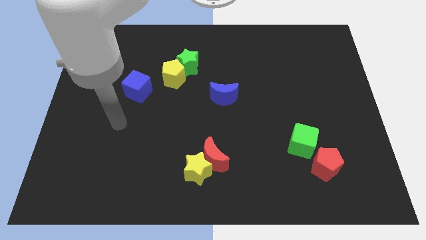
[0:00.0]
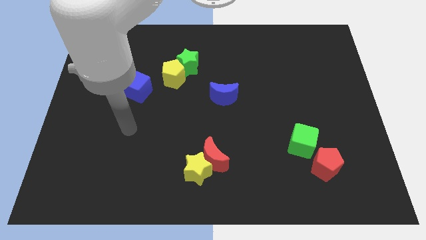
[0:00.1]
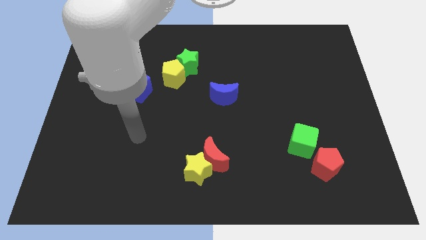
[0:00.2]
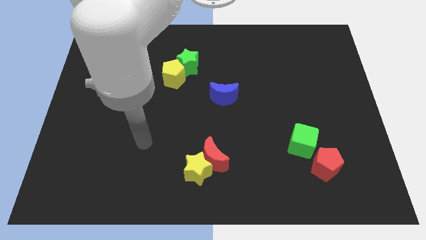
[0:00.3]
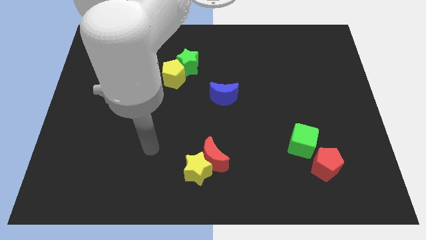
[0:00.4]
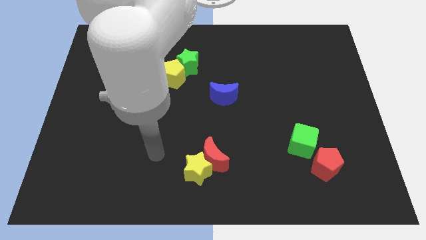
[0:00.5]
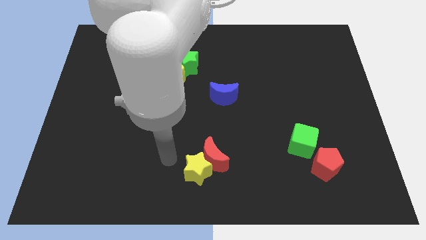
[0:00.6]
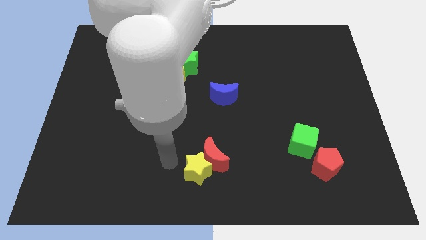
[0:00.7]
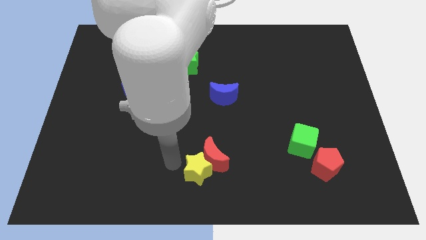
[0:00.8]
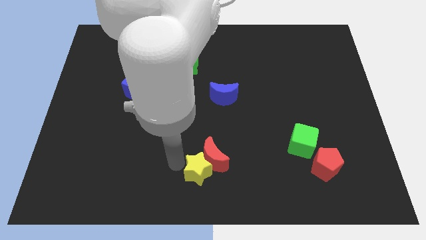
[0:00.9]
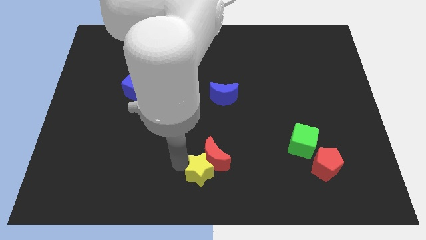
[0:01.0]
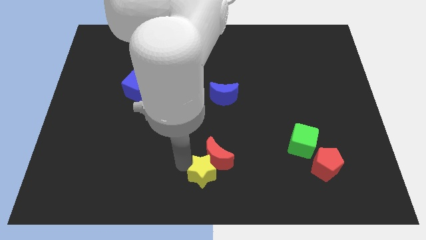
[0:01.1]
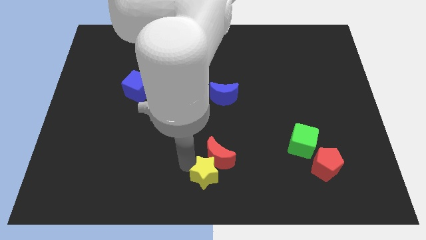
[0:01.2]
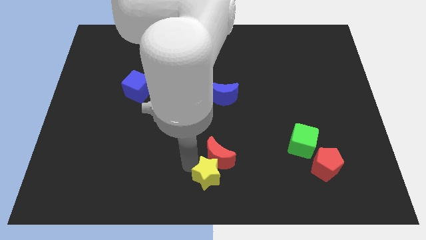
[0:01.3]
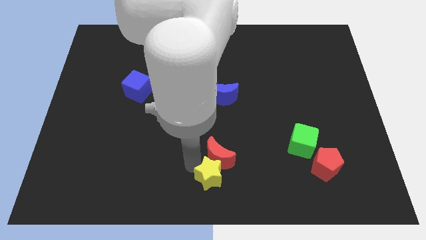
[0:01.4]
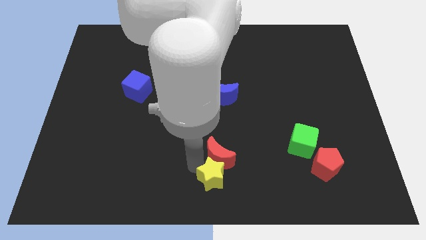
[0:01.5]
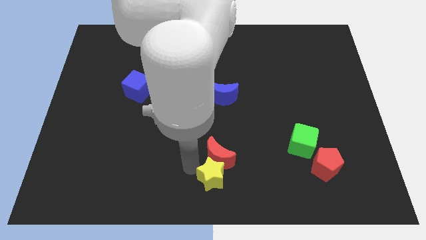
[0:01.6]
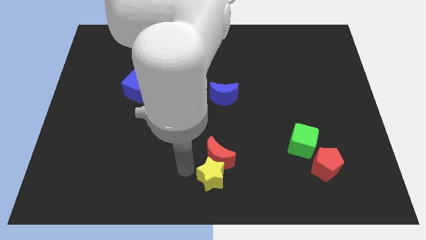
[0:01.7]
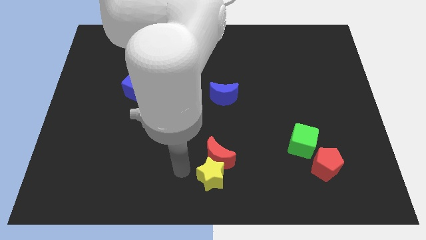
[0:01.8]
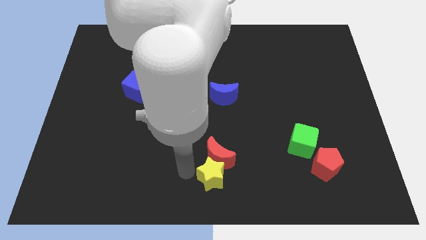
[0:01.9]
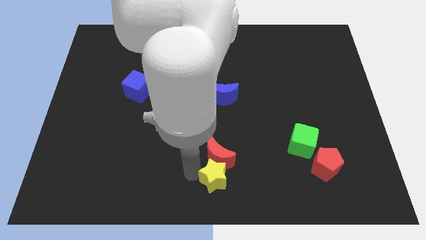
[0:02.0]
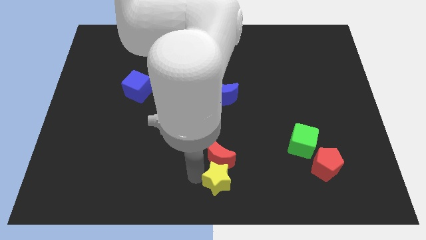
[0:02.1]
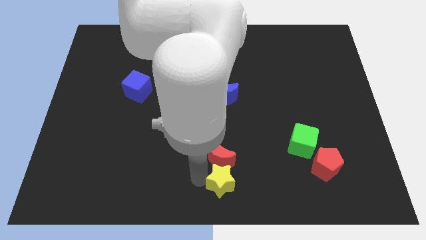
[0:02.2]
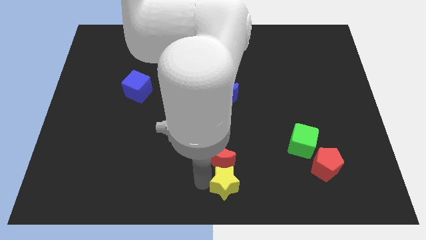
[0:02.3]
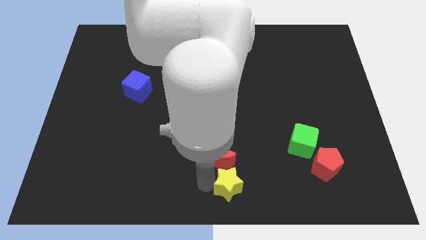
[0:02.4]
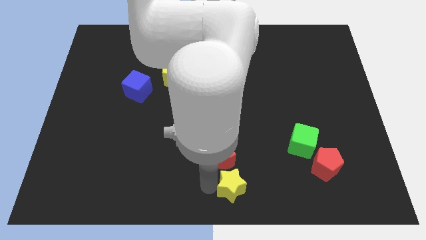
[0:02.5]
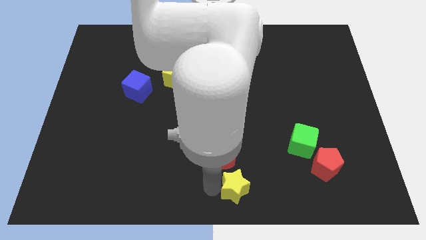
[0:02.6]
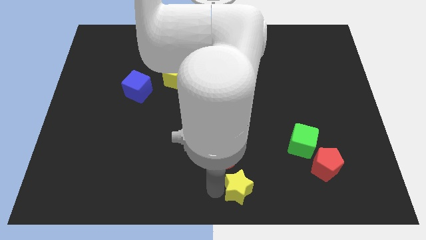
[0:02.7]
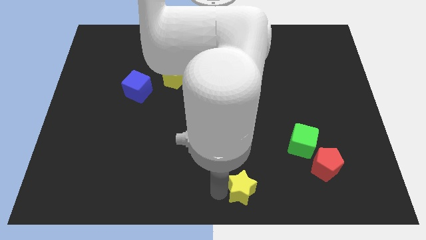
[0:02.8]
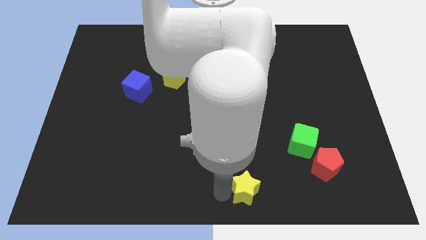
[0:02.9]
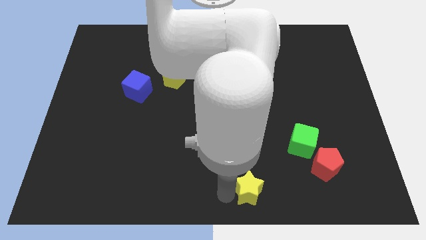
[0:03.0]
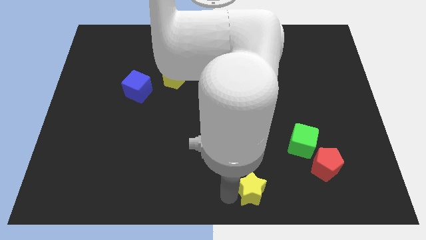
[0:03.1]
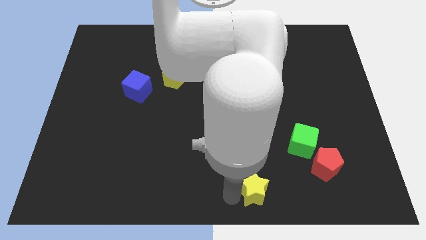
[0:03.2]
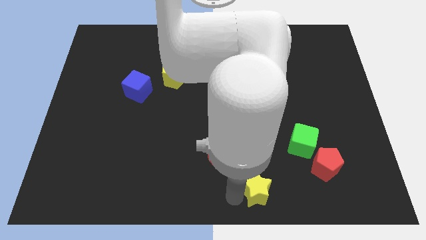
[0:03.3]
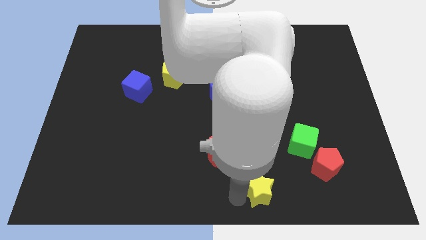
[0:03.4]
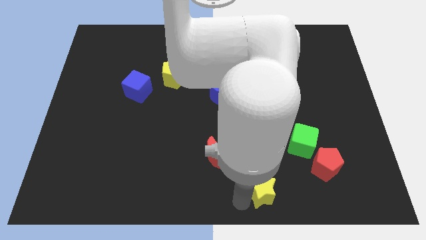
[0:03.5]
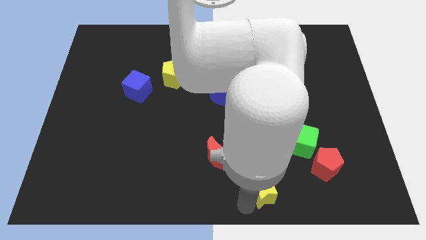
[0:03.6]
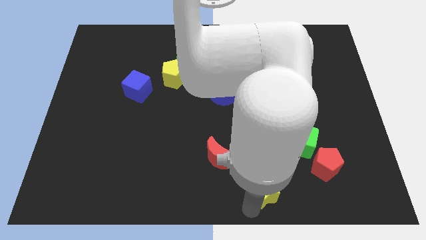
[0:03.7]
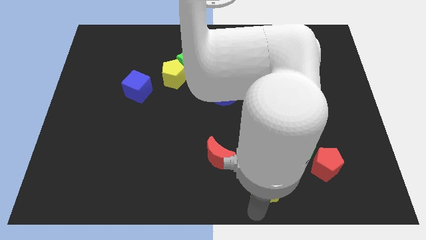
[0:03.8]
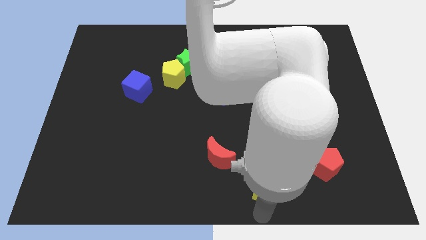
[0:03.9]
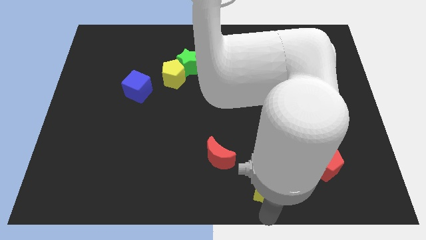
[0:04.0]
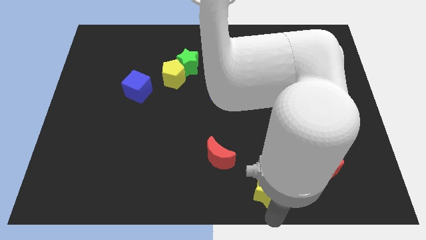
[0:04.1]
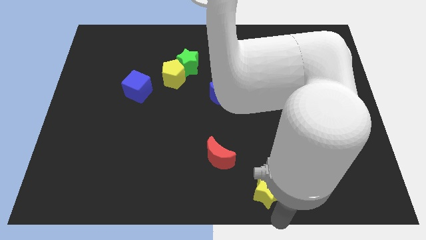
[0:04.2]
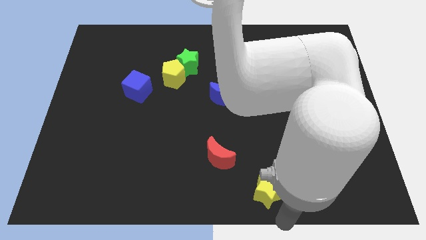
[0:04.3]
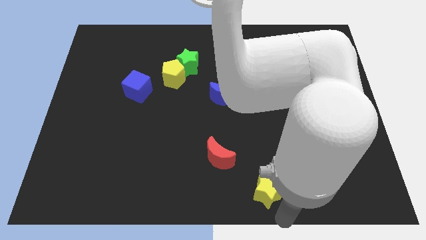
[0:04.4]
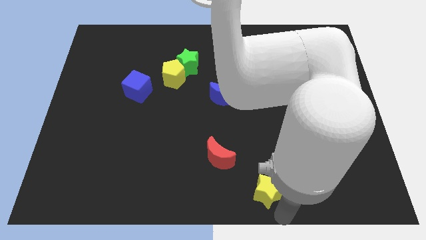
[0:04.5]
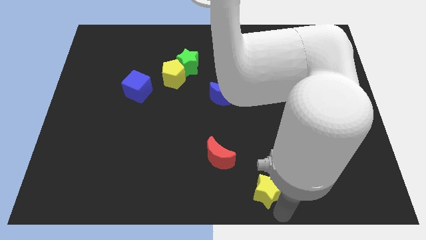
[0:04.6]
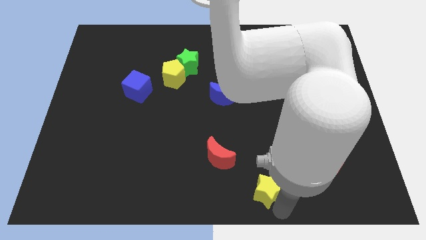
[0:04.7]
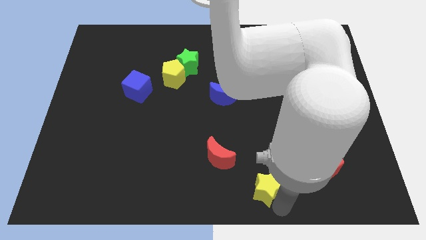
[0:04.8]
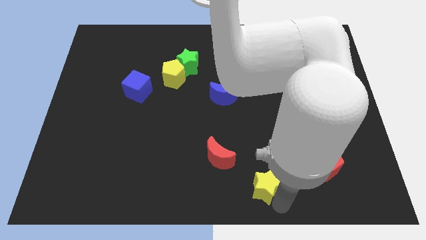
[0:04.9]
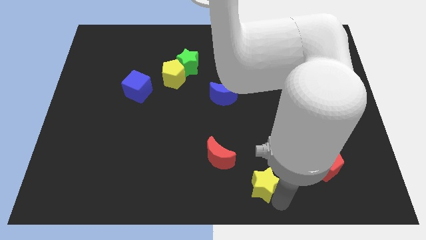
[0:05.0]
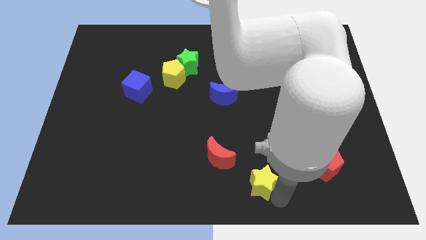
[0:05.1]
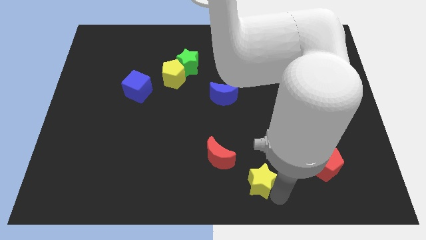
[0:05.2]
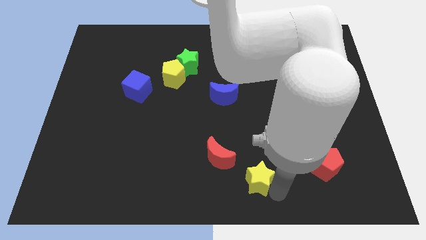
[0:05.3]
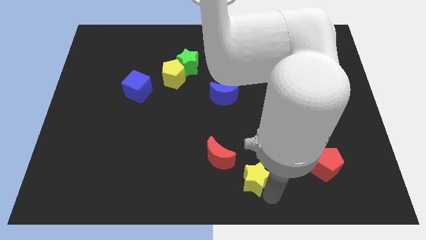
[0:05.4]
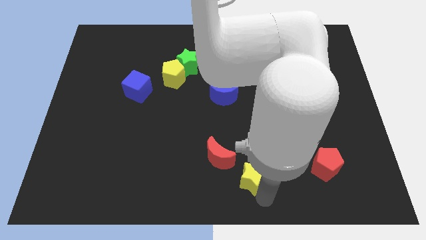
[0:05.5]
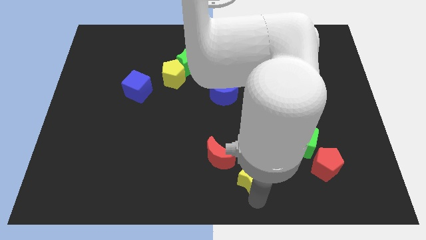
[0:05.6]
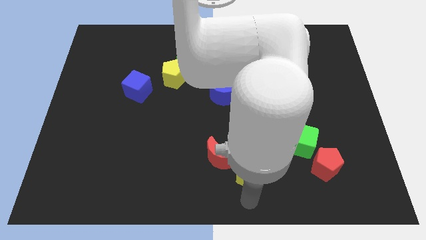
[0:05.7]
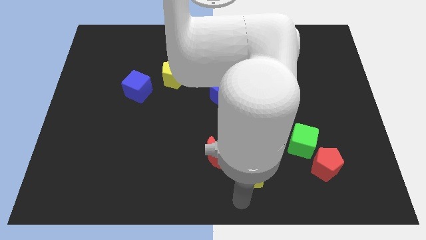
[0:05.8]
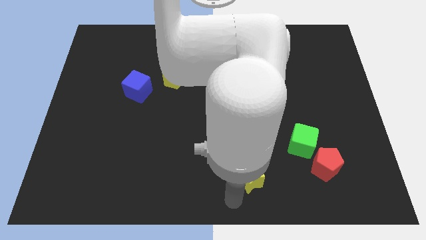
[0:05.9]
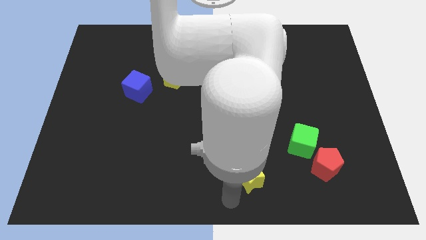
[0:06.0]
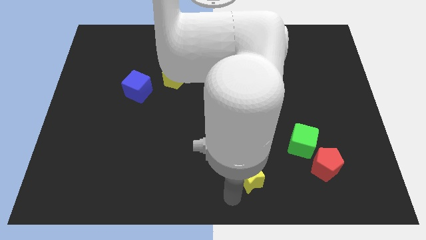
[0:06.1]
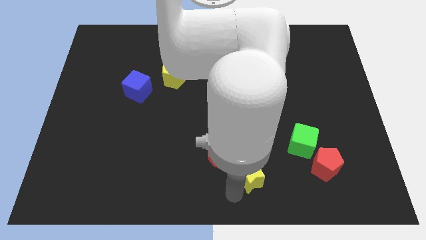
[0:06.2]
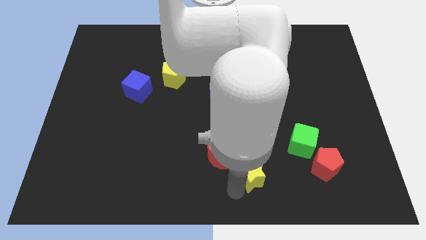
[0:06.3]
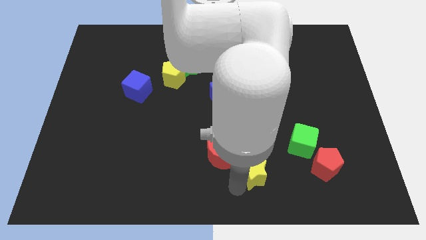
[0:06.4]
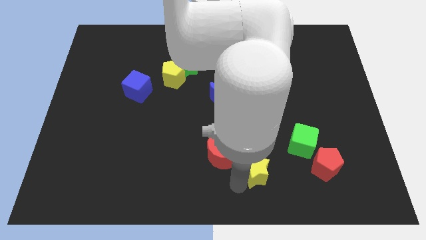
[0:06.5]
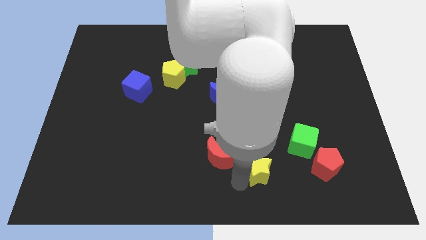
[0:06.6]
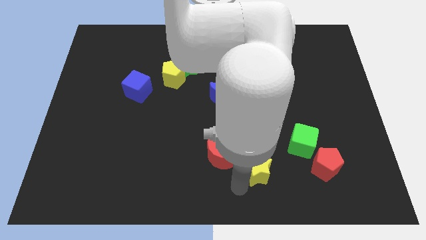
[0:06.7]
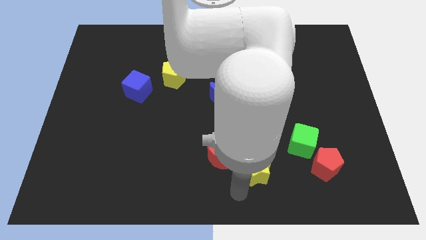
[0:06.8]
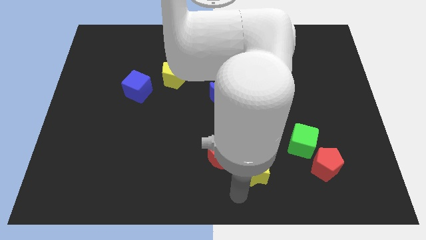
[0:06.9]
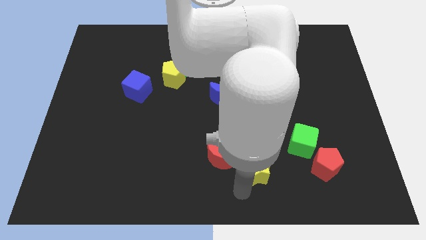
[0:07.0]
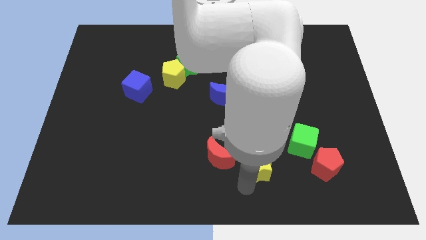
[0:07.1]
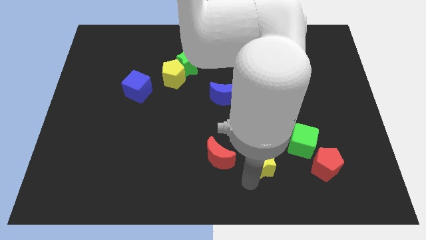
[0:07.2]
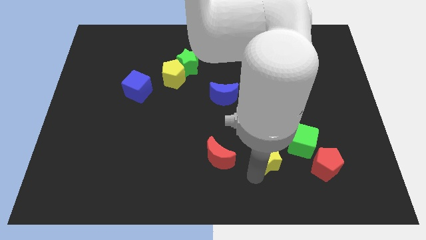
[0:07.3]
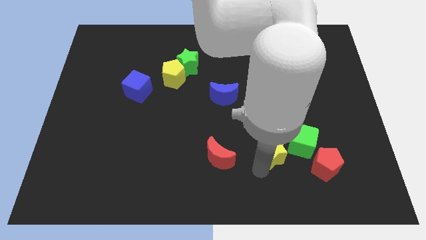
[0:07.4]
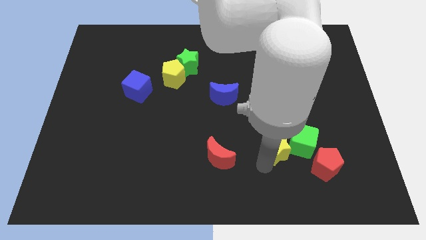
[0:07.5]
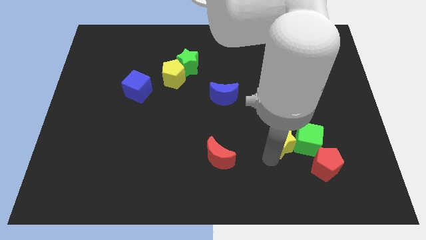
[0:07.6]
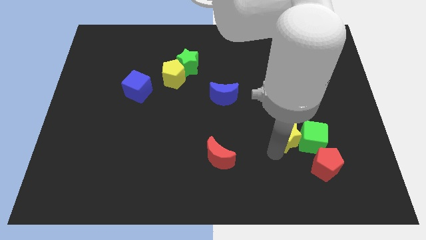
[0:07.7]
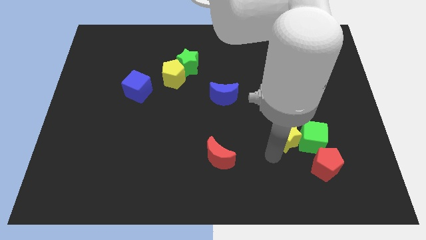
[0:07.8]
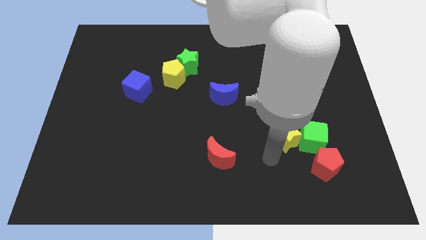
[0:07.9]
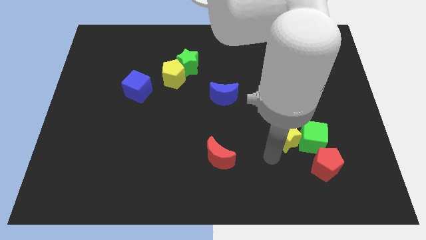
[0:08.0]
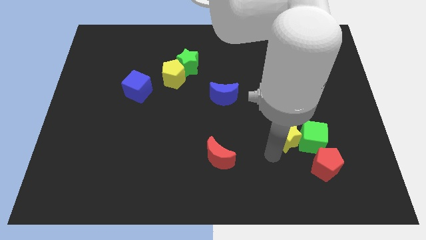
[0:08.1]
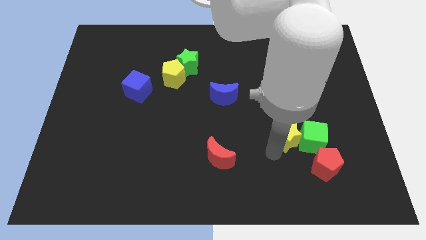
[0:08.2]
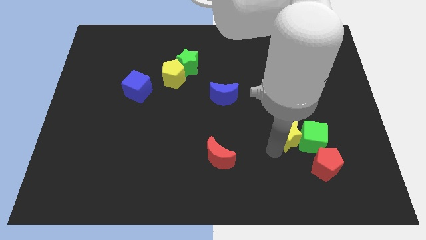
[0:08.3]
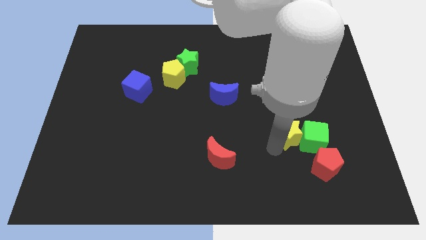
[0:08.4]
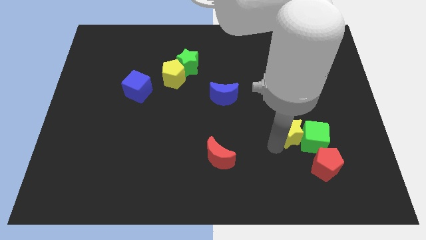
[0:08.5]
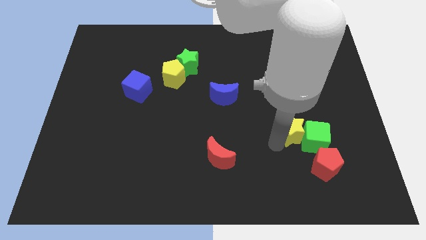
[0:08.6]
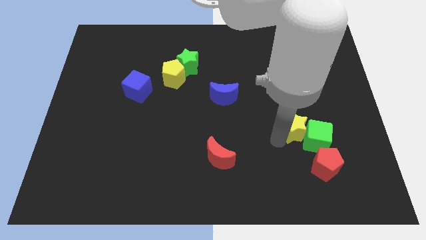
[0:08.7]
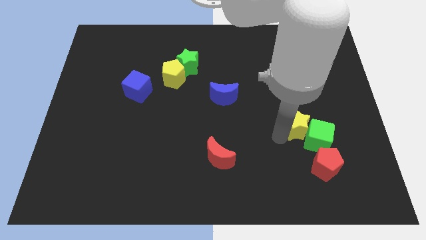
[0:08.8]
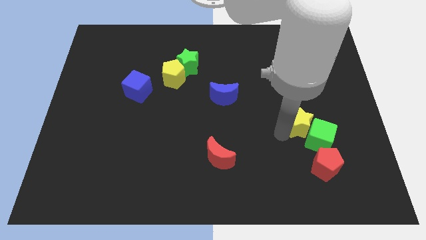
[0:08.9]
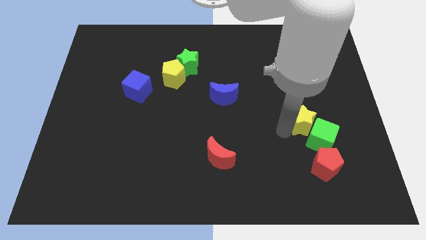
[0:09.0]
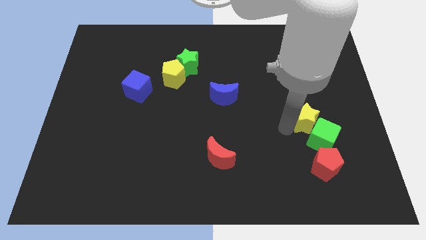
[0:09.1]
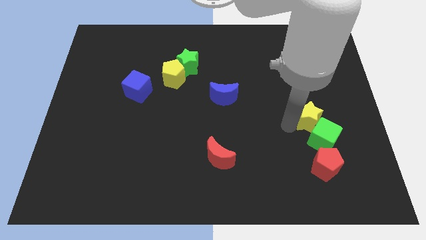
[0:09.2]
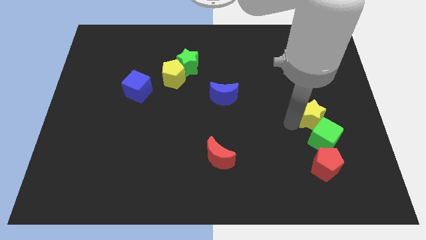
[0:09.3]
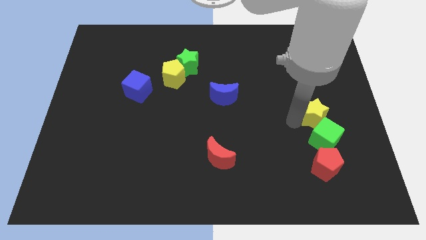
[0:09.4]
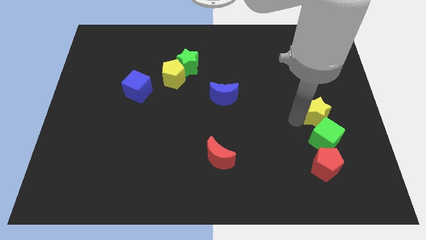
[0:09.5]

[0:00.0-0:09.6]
move the yellow star to the top right of the green cube
